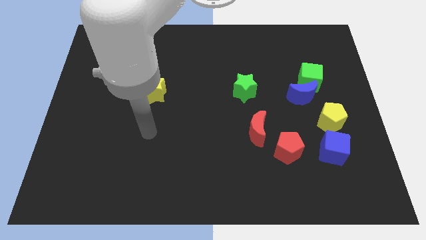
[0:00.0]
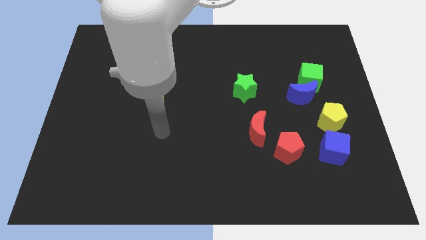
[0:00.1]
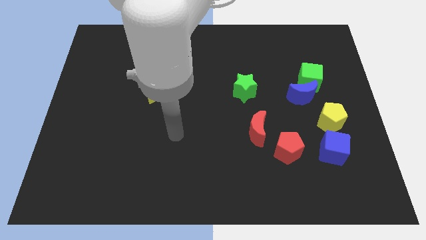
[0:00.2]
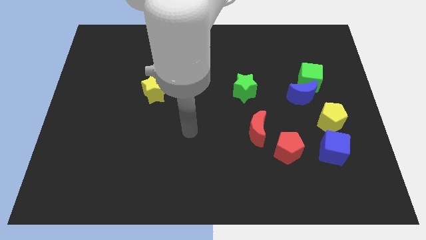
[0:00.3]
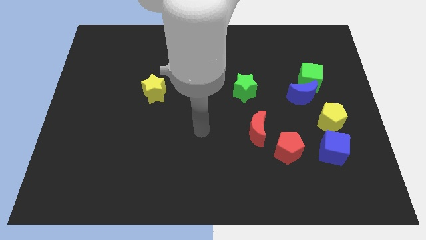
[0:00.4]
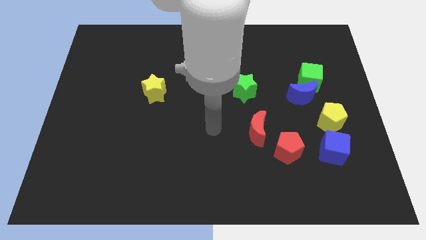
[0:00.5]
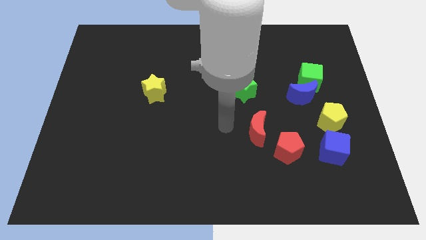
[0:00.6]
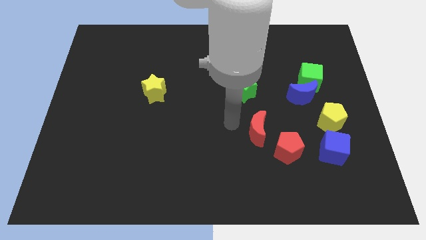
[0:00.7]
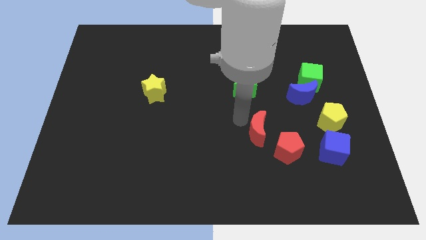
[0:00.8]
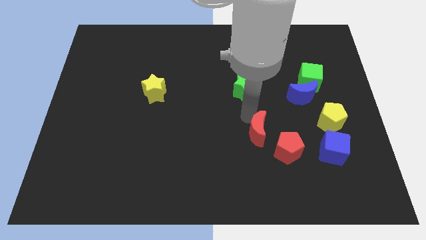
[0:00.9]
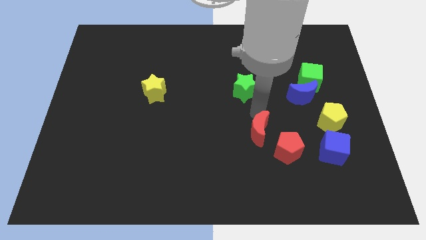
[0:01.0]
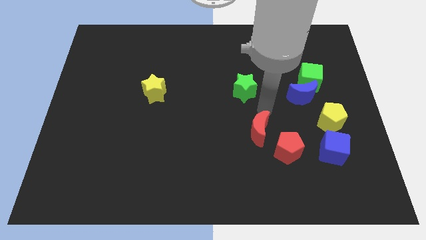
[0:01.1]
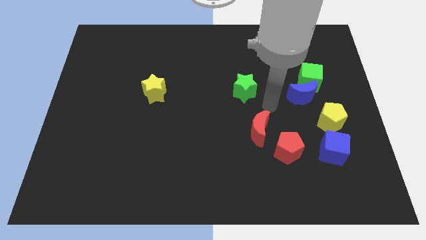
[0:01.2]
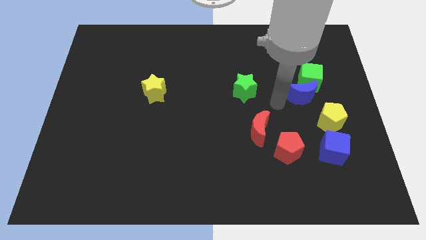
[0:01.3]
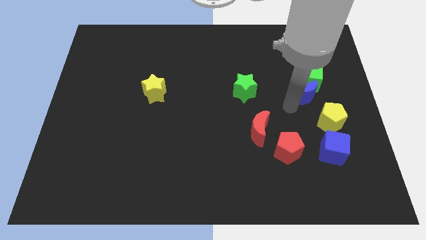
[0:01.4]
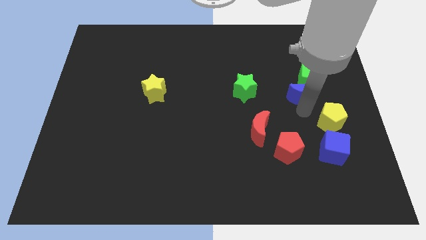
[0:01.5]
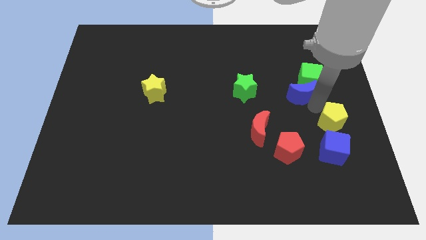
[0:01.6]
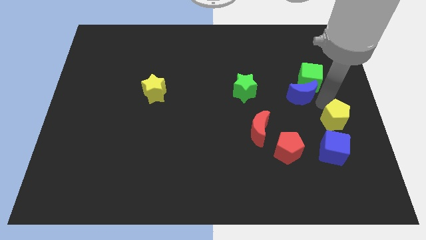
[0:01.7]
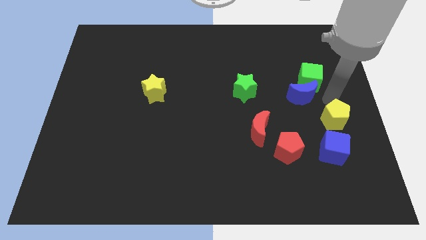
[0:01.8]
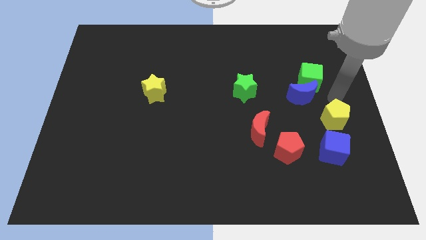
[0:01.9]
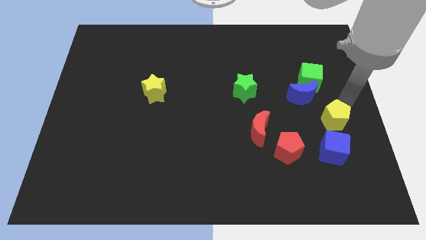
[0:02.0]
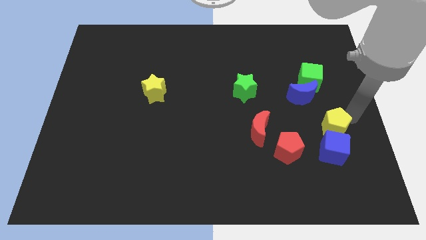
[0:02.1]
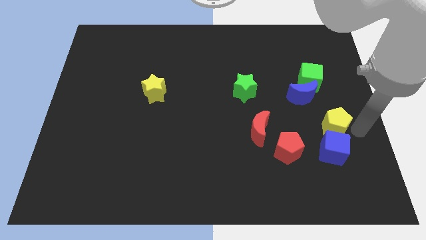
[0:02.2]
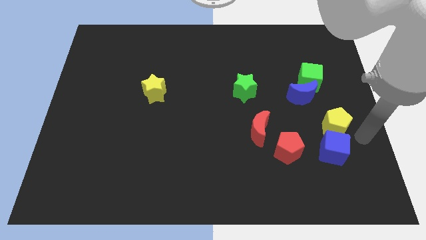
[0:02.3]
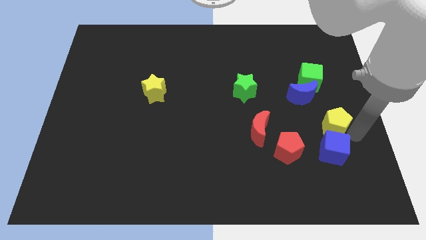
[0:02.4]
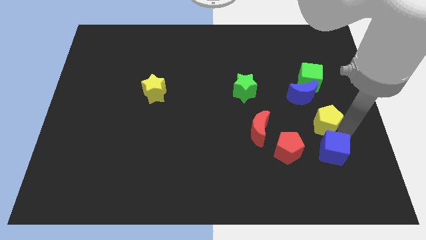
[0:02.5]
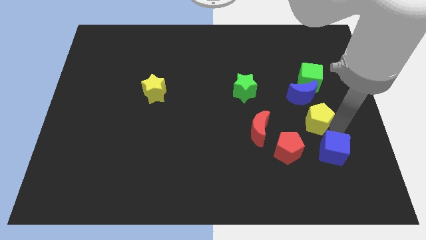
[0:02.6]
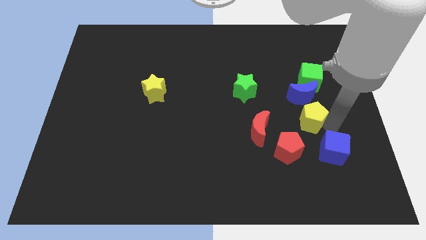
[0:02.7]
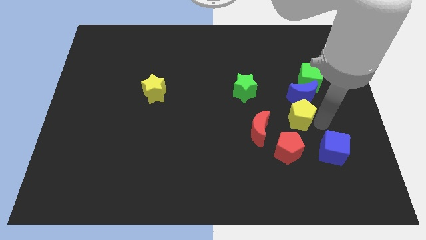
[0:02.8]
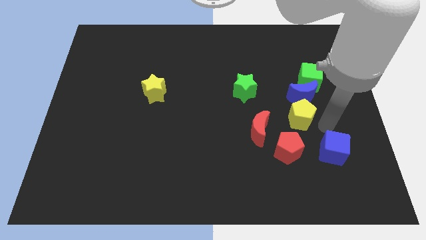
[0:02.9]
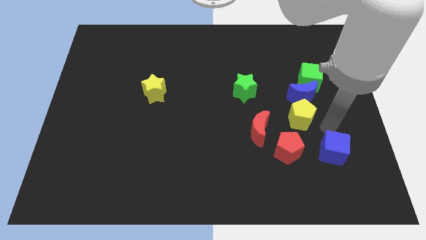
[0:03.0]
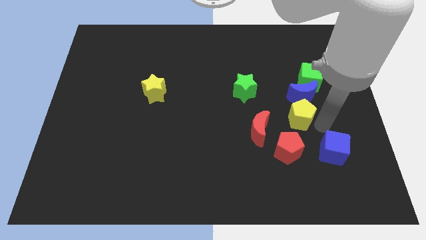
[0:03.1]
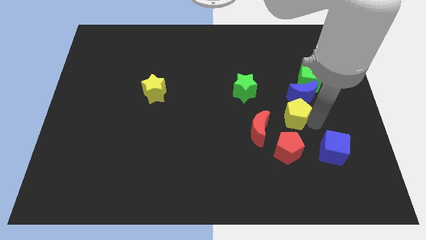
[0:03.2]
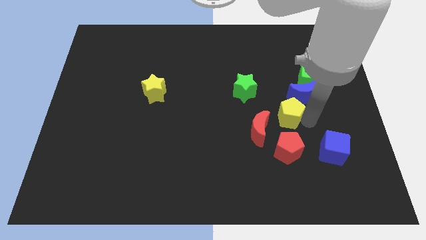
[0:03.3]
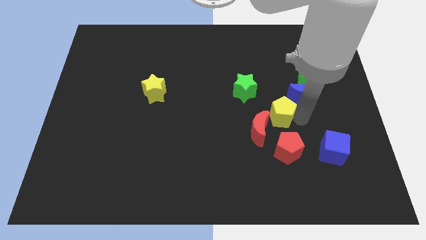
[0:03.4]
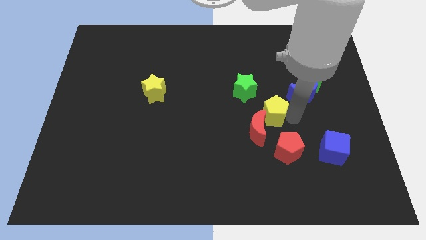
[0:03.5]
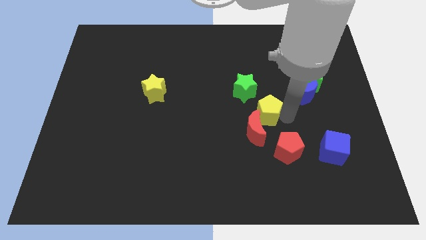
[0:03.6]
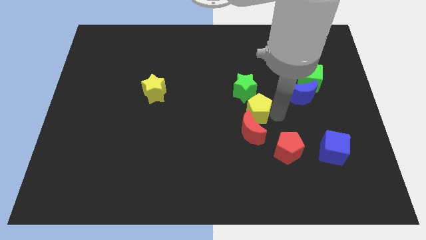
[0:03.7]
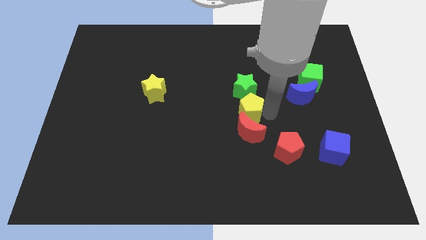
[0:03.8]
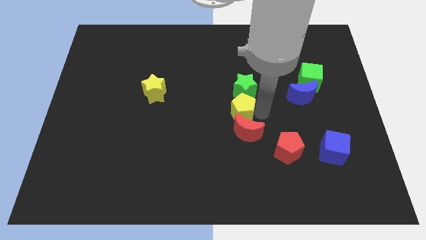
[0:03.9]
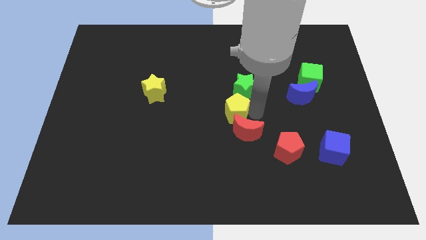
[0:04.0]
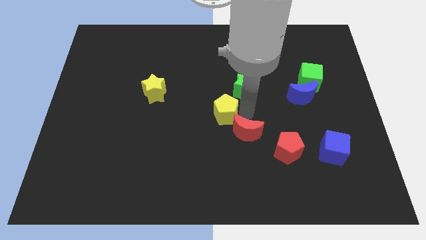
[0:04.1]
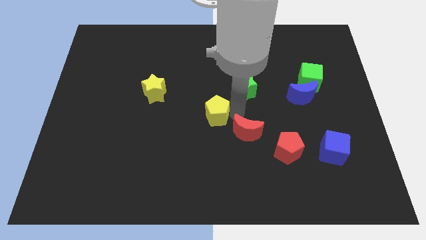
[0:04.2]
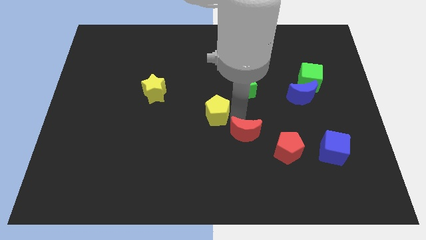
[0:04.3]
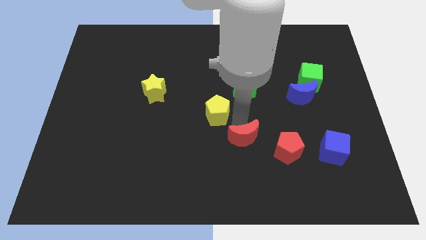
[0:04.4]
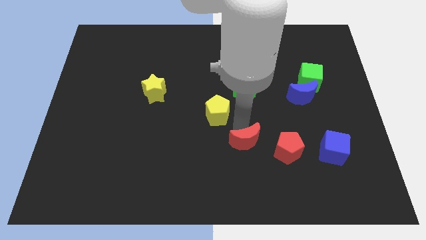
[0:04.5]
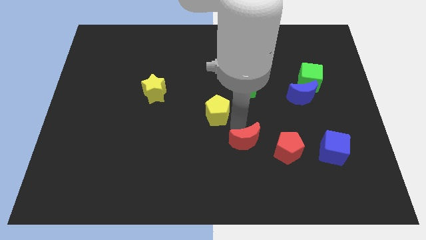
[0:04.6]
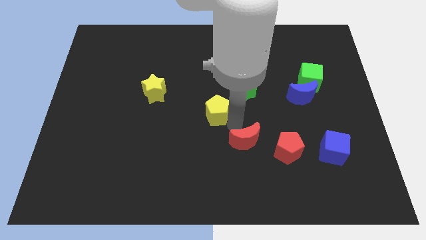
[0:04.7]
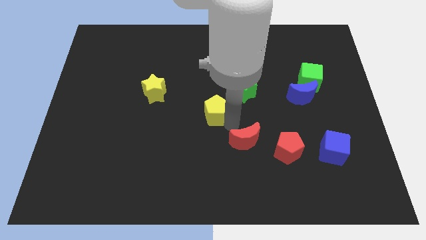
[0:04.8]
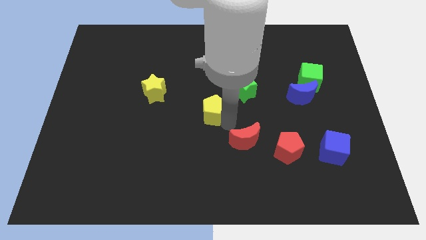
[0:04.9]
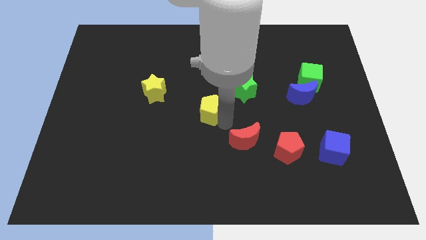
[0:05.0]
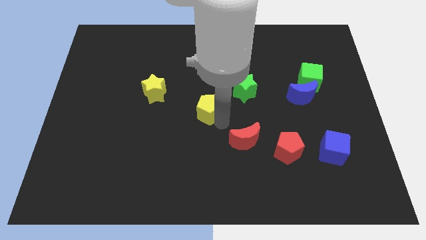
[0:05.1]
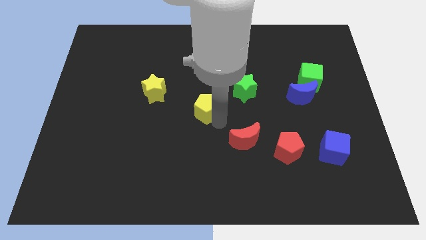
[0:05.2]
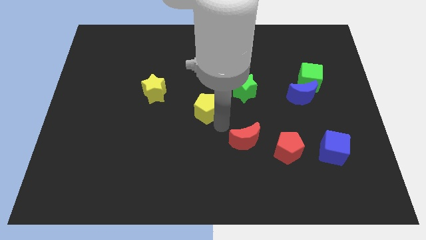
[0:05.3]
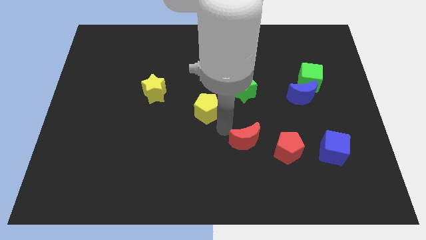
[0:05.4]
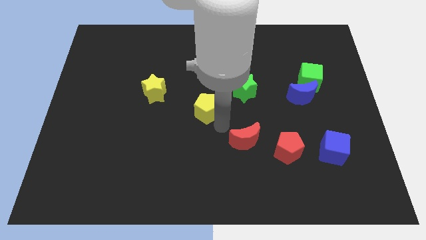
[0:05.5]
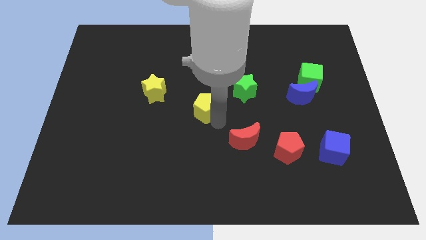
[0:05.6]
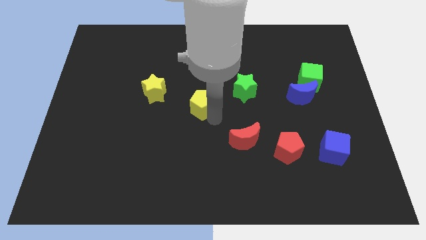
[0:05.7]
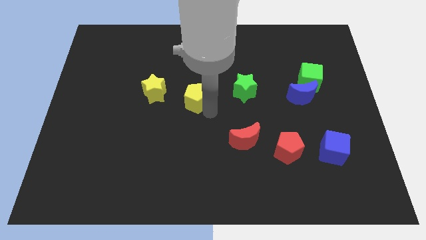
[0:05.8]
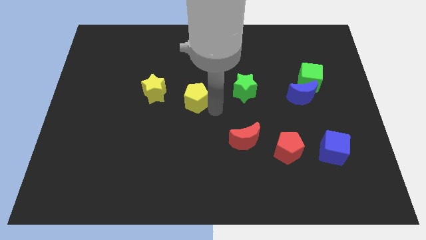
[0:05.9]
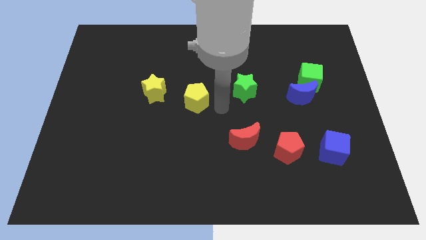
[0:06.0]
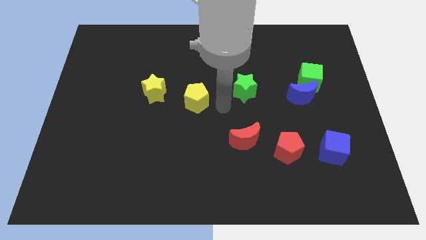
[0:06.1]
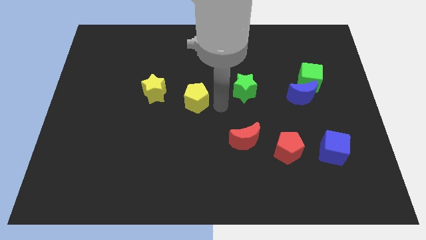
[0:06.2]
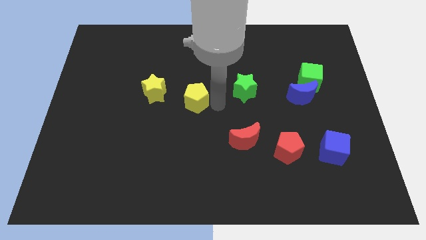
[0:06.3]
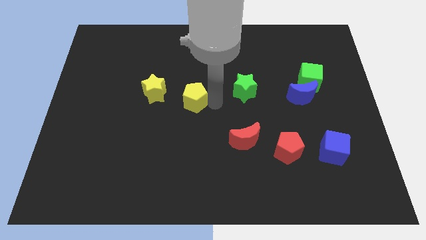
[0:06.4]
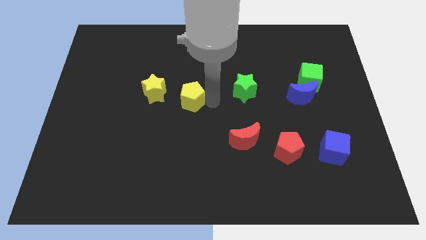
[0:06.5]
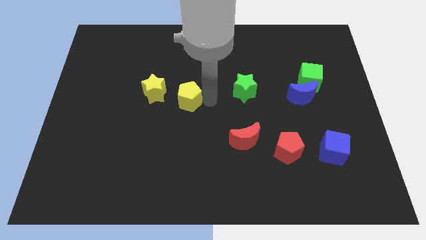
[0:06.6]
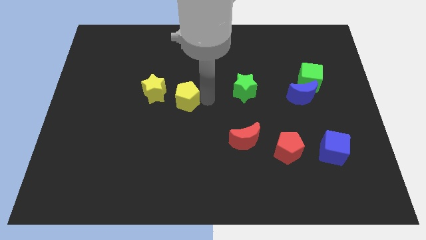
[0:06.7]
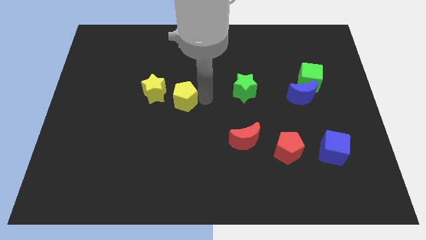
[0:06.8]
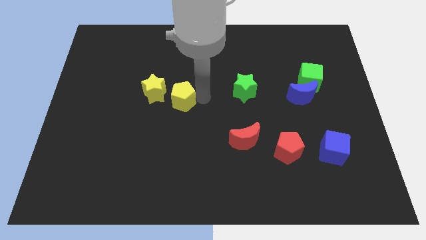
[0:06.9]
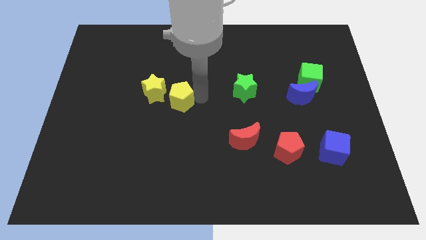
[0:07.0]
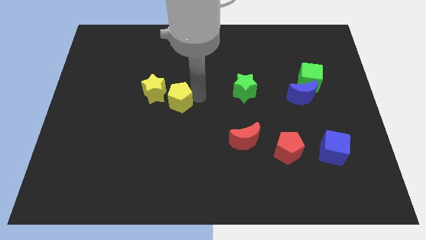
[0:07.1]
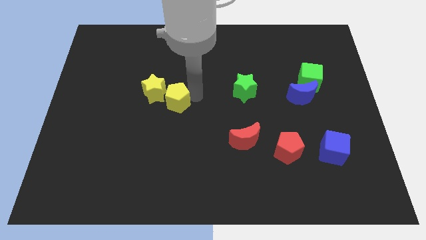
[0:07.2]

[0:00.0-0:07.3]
move the yellow pentagon to the yellow star
